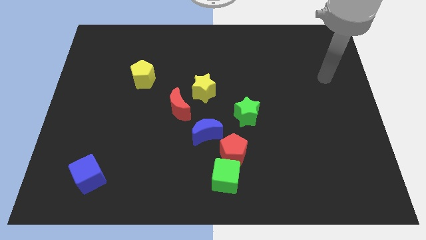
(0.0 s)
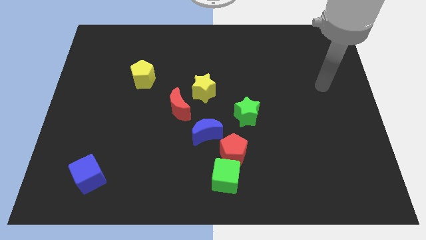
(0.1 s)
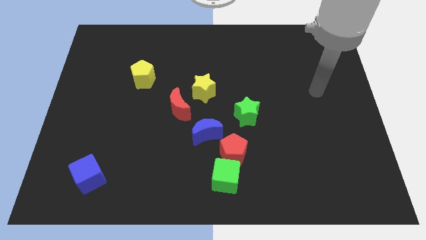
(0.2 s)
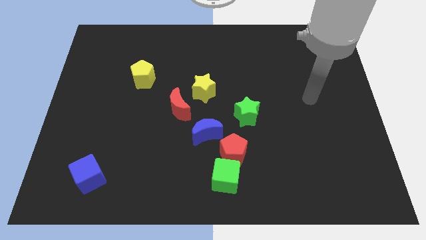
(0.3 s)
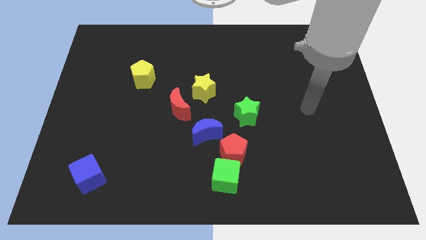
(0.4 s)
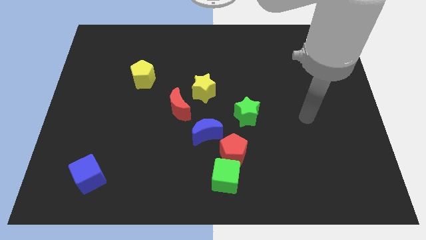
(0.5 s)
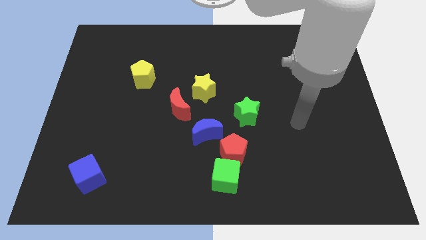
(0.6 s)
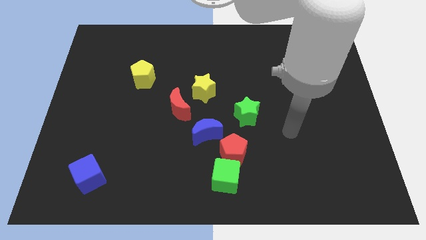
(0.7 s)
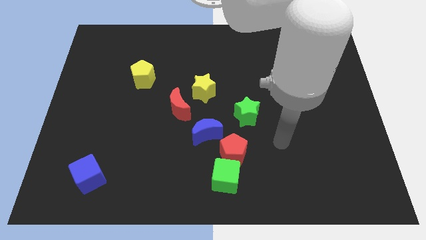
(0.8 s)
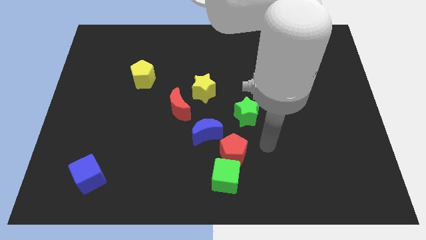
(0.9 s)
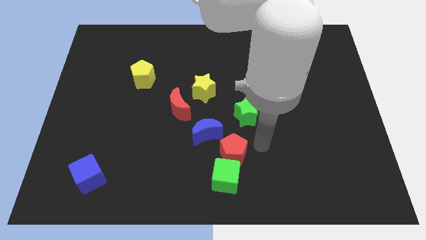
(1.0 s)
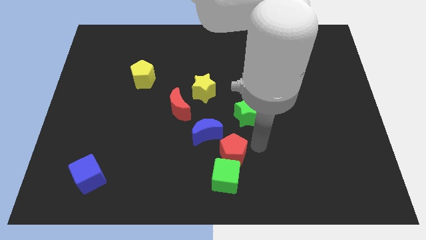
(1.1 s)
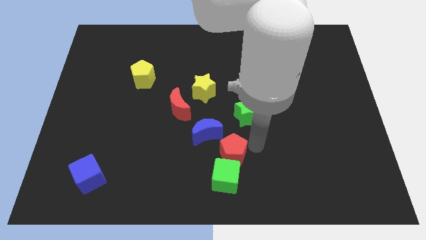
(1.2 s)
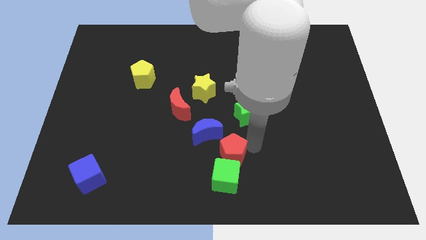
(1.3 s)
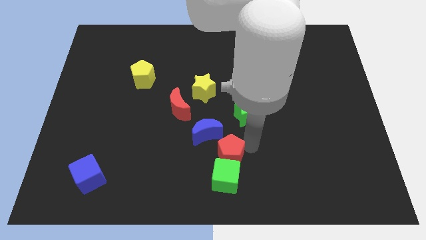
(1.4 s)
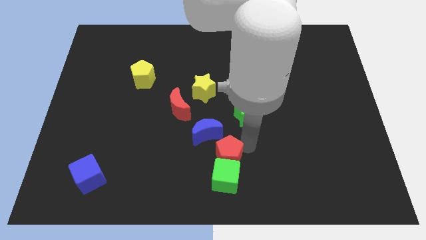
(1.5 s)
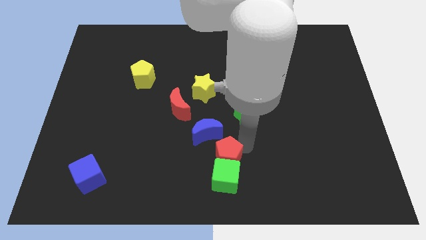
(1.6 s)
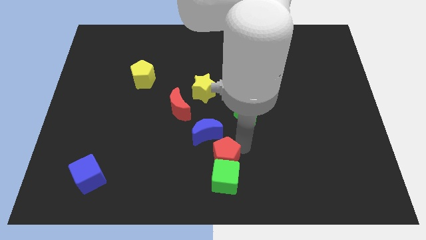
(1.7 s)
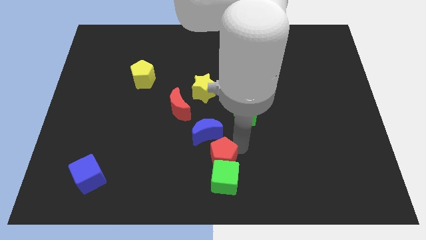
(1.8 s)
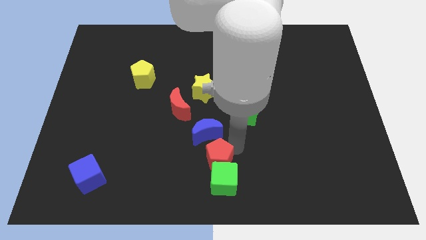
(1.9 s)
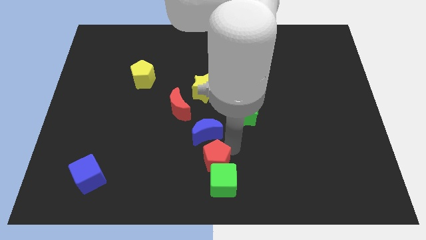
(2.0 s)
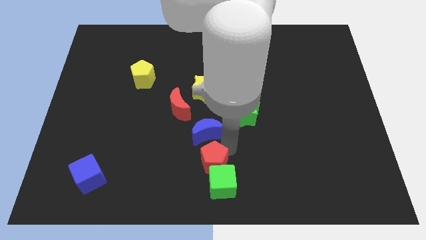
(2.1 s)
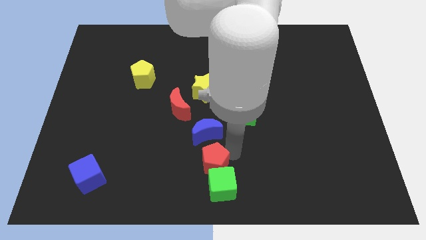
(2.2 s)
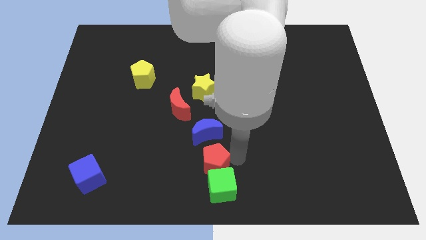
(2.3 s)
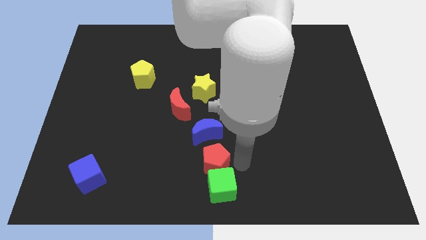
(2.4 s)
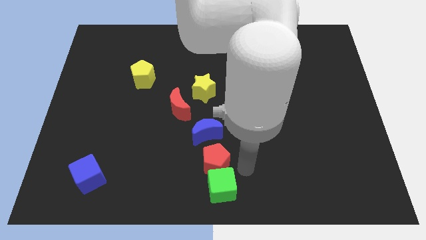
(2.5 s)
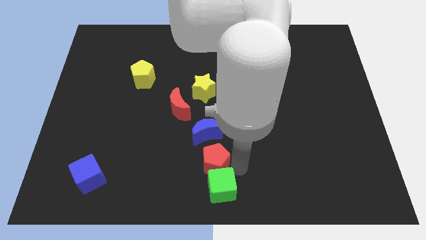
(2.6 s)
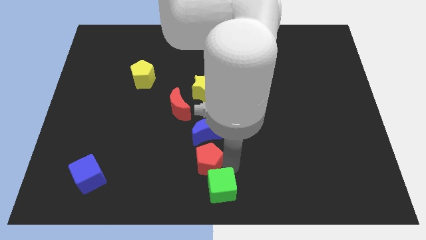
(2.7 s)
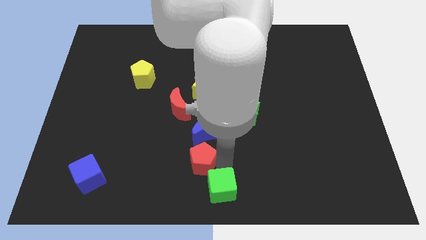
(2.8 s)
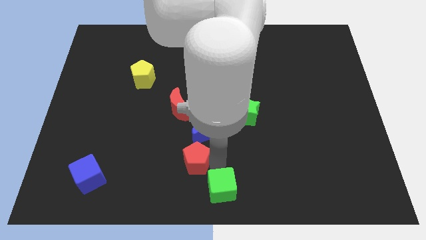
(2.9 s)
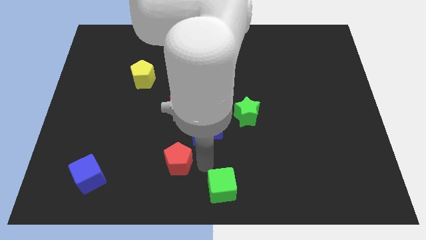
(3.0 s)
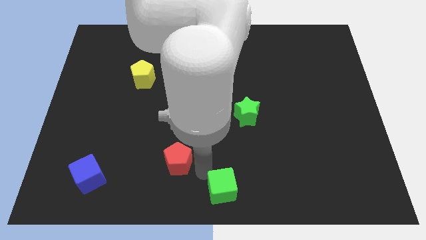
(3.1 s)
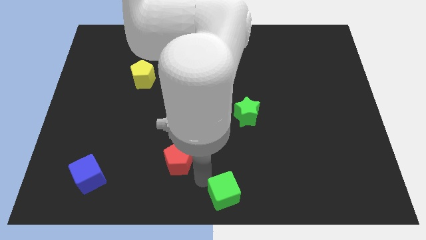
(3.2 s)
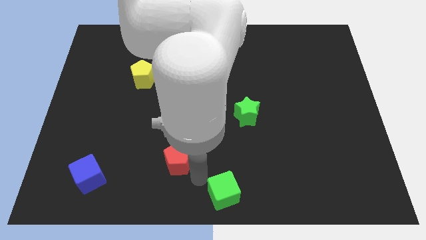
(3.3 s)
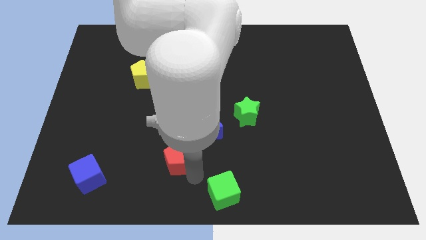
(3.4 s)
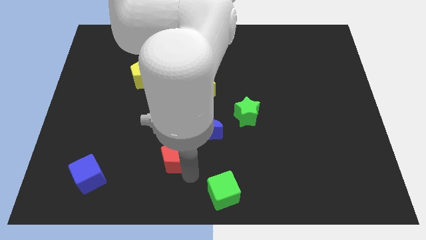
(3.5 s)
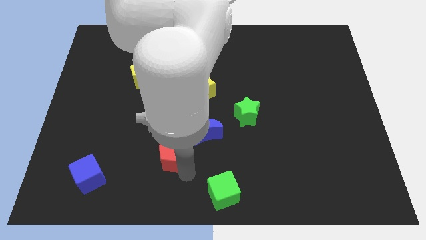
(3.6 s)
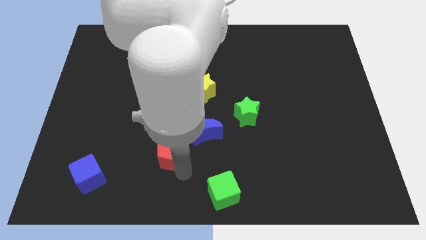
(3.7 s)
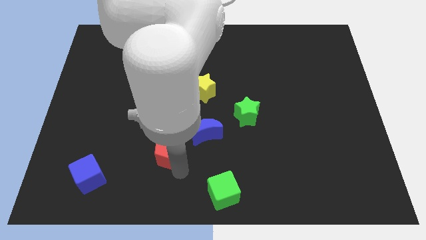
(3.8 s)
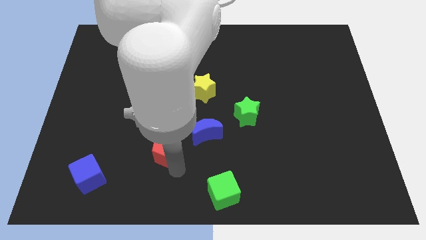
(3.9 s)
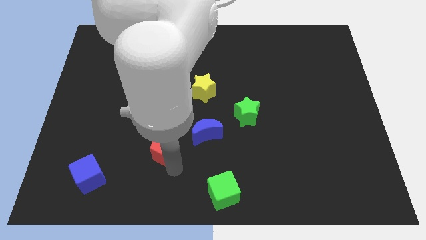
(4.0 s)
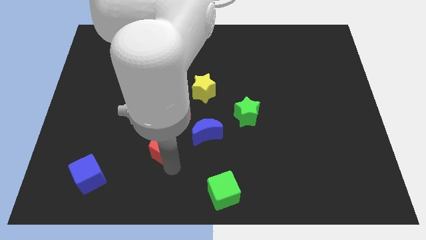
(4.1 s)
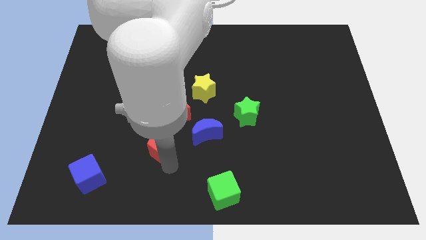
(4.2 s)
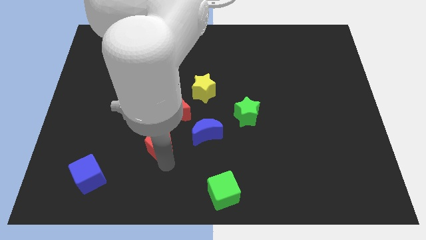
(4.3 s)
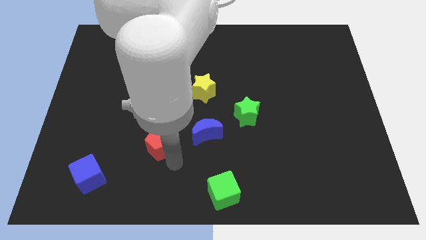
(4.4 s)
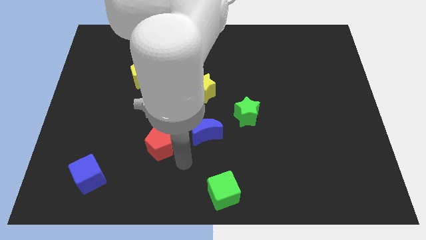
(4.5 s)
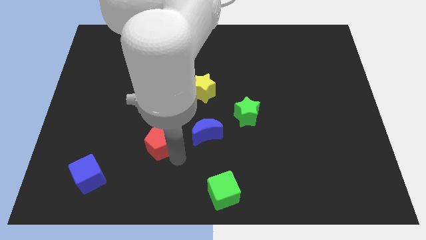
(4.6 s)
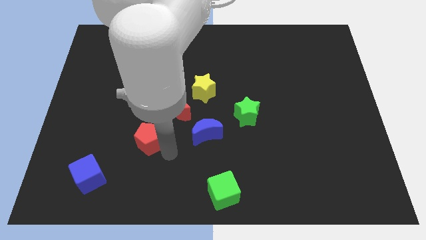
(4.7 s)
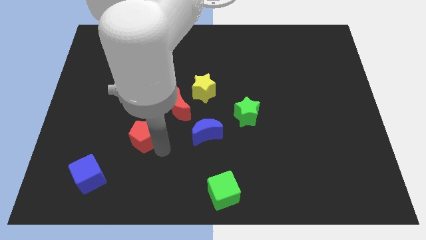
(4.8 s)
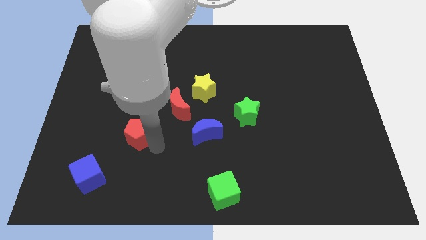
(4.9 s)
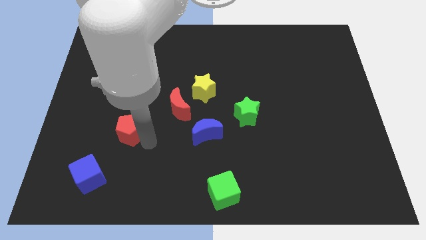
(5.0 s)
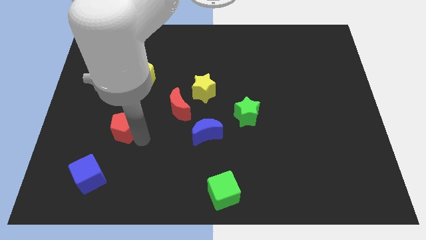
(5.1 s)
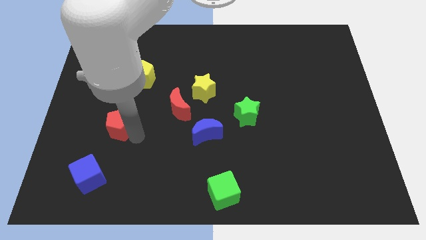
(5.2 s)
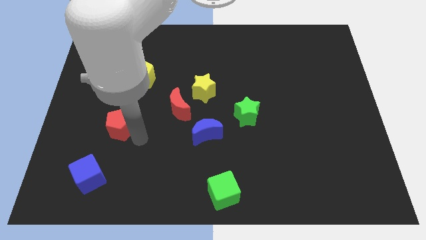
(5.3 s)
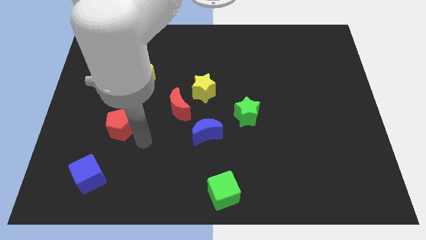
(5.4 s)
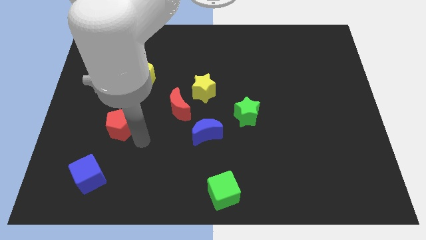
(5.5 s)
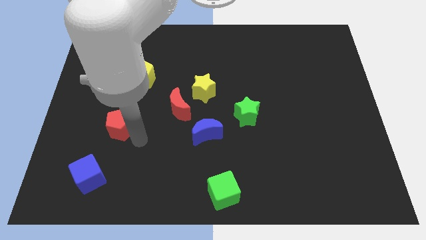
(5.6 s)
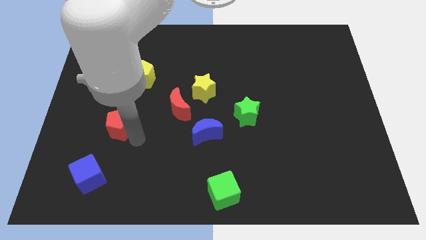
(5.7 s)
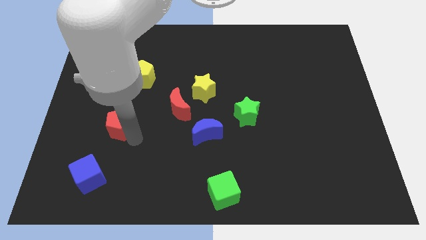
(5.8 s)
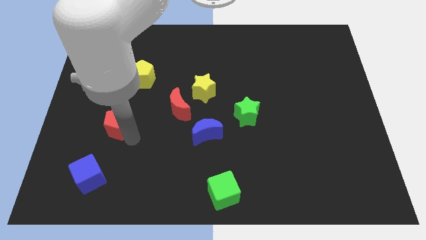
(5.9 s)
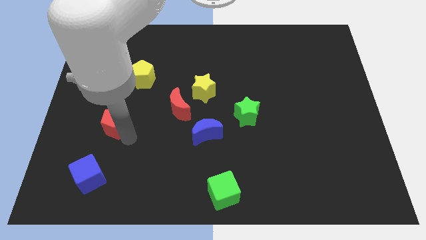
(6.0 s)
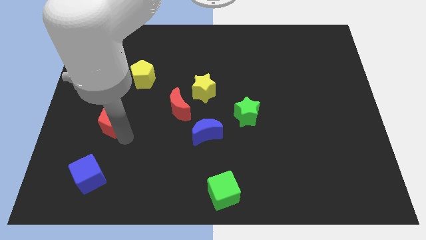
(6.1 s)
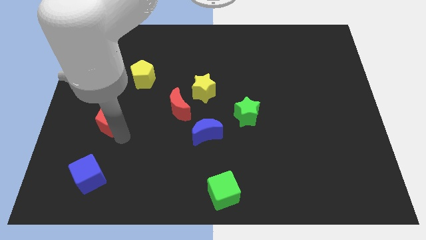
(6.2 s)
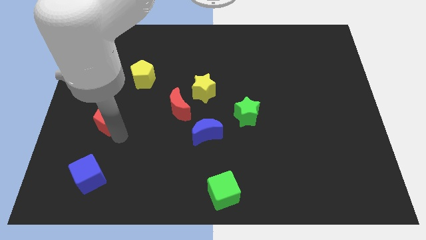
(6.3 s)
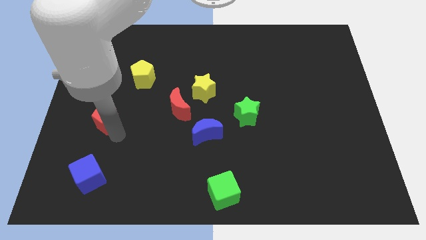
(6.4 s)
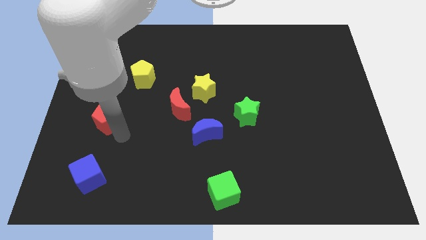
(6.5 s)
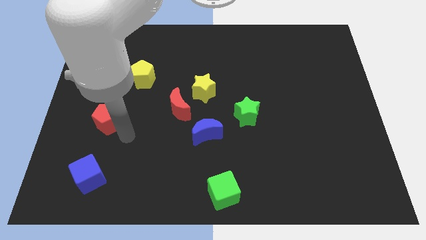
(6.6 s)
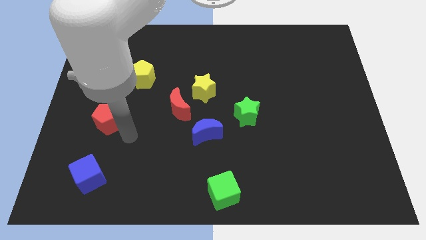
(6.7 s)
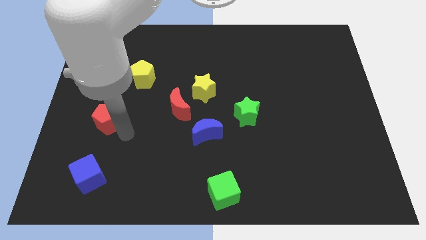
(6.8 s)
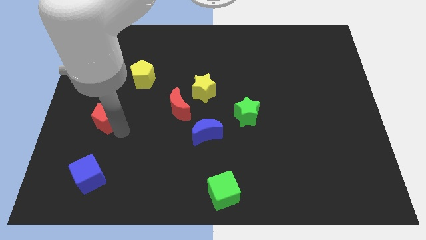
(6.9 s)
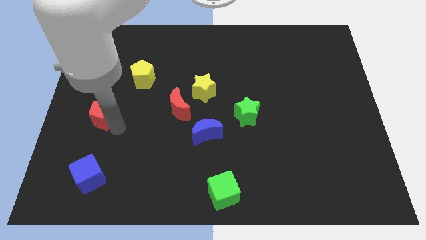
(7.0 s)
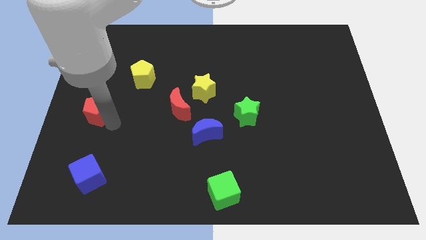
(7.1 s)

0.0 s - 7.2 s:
push the red pentagon to the left side of the board
